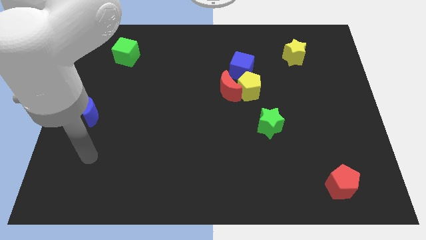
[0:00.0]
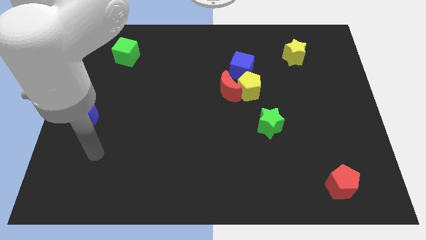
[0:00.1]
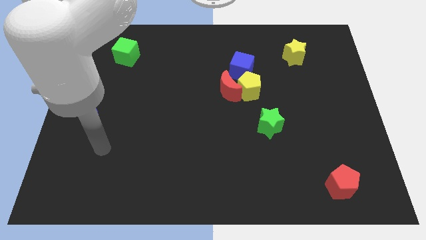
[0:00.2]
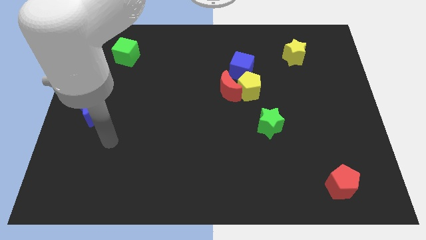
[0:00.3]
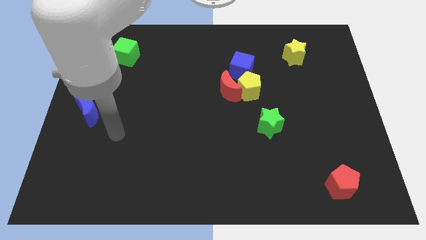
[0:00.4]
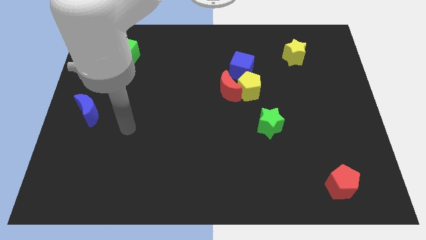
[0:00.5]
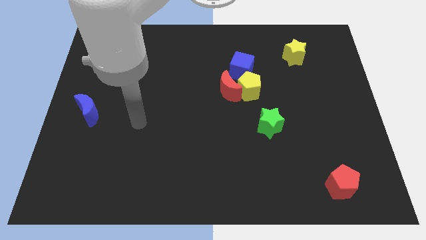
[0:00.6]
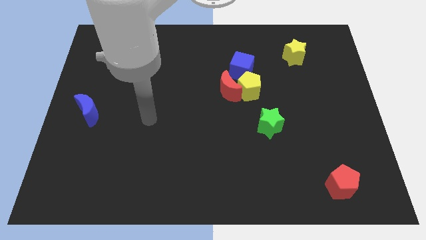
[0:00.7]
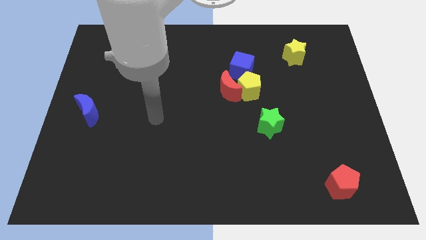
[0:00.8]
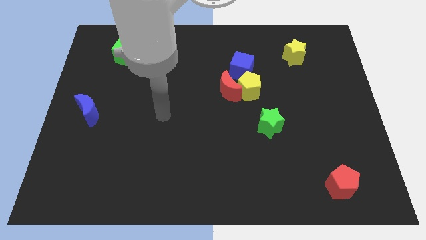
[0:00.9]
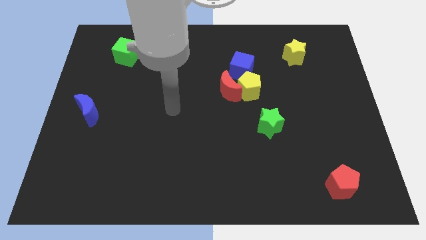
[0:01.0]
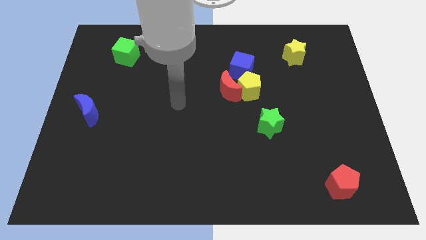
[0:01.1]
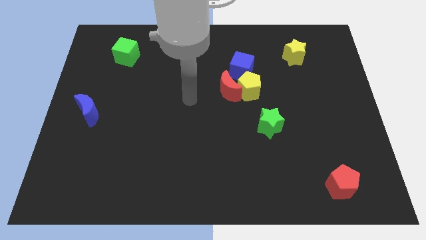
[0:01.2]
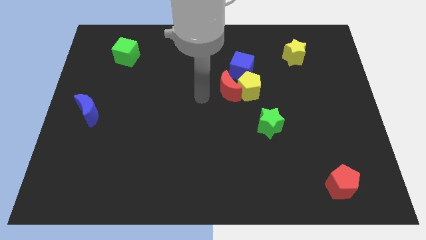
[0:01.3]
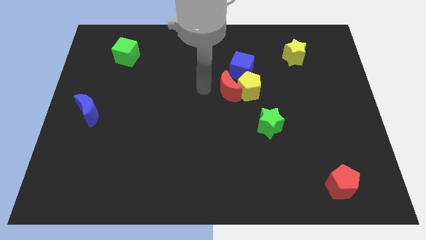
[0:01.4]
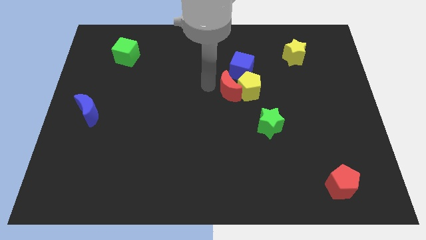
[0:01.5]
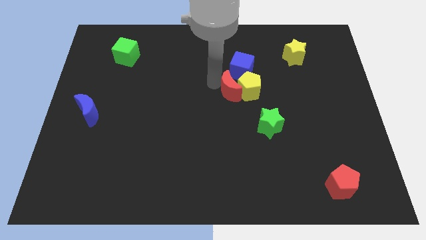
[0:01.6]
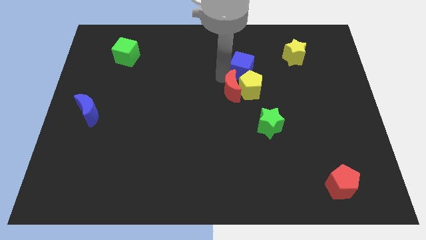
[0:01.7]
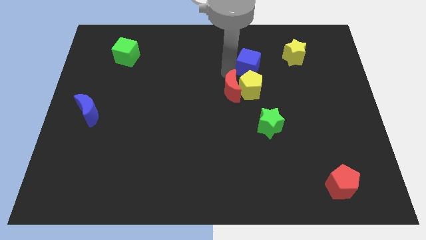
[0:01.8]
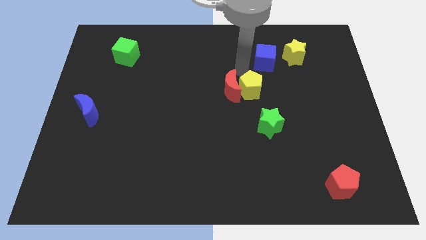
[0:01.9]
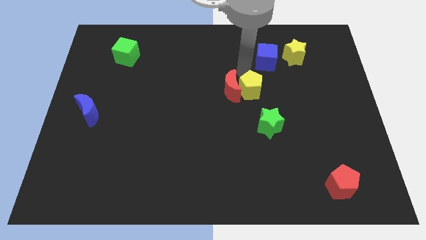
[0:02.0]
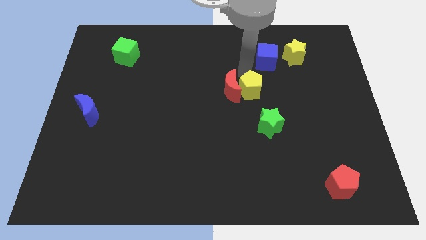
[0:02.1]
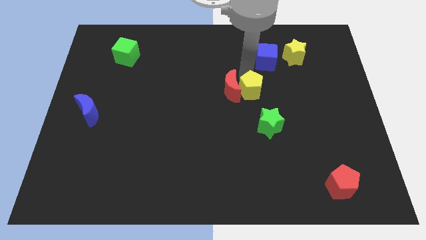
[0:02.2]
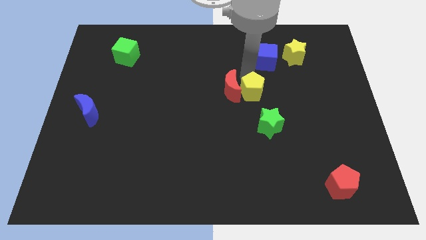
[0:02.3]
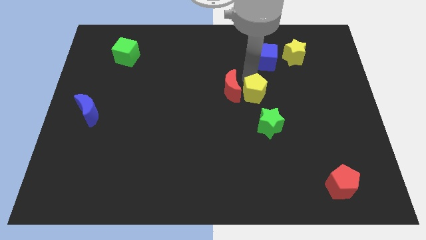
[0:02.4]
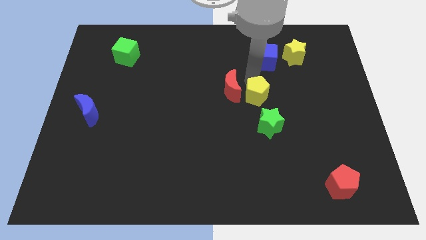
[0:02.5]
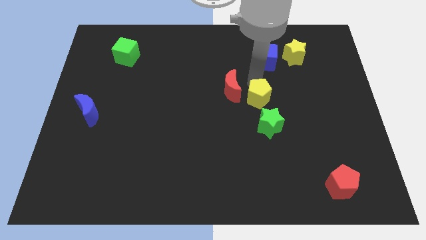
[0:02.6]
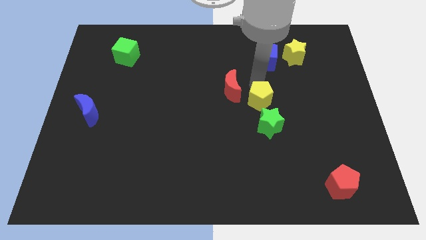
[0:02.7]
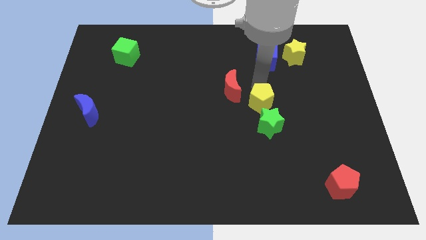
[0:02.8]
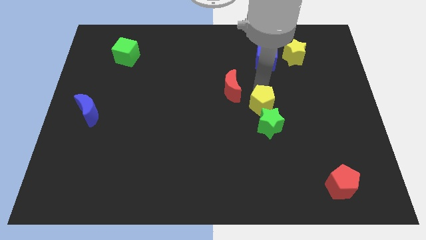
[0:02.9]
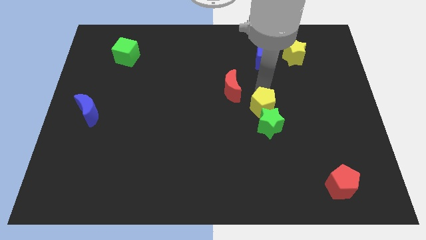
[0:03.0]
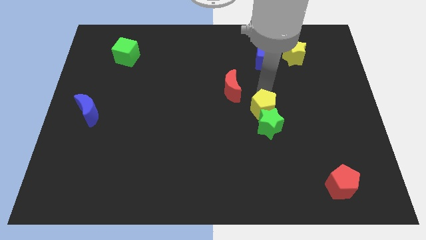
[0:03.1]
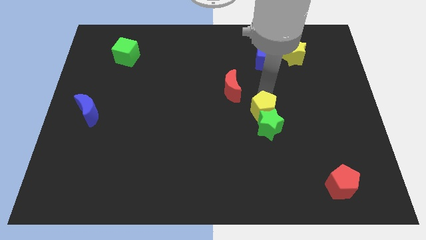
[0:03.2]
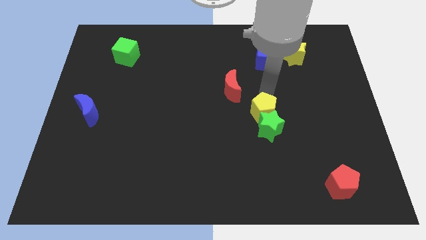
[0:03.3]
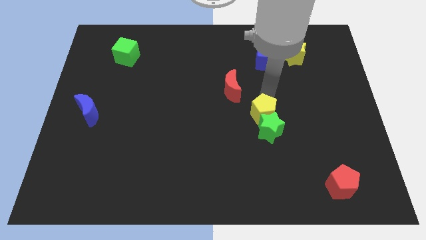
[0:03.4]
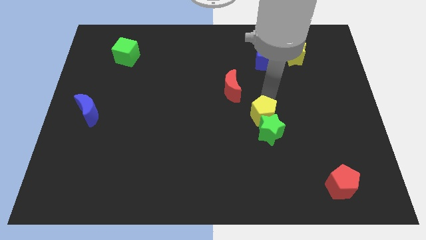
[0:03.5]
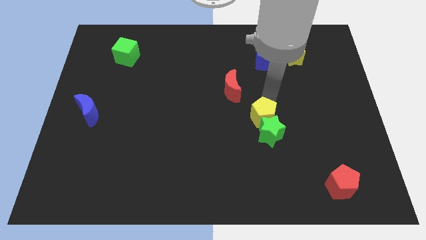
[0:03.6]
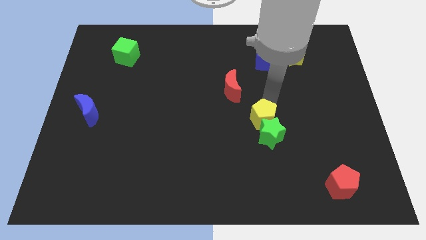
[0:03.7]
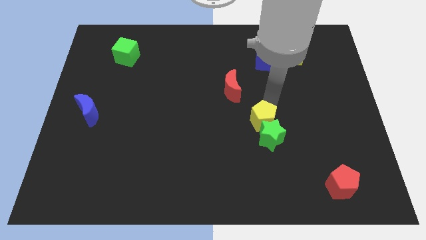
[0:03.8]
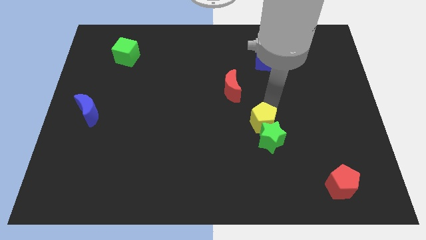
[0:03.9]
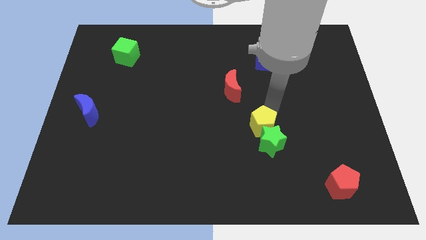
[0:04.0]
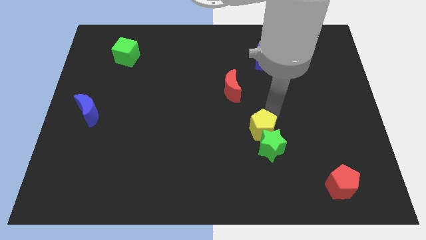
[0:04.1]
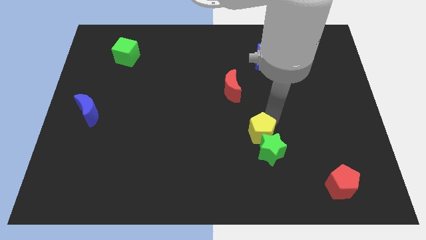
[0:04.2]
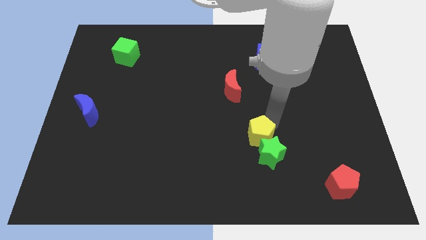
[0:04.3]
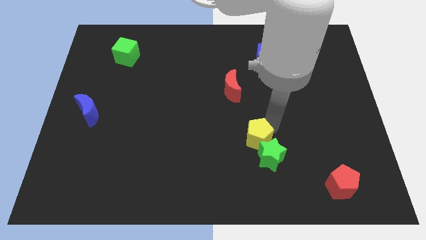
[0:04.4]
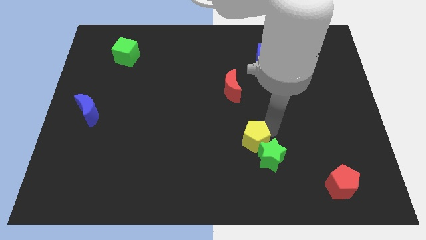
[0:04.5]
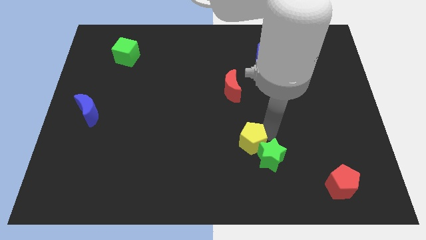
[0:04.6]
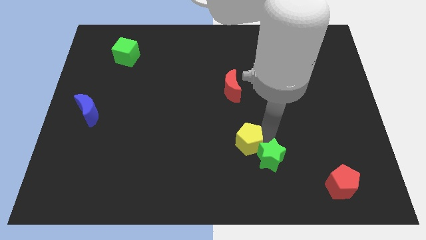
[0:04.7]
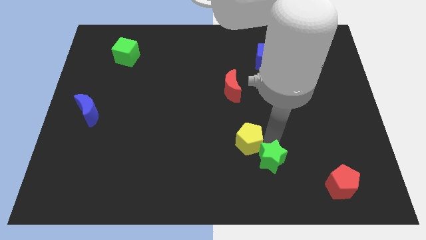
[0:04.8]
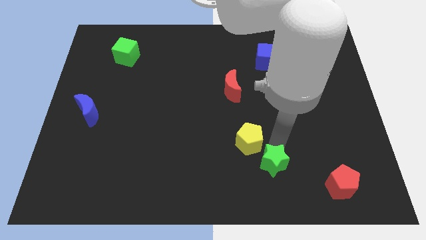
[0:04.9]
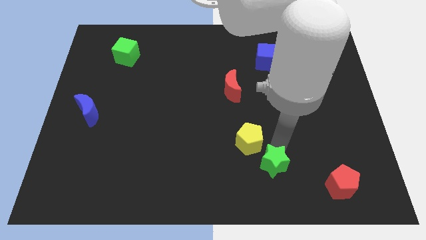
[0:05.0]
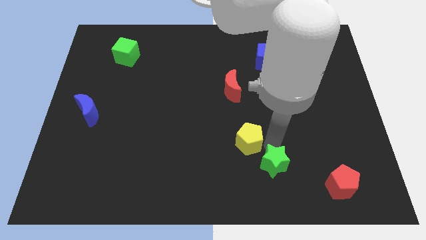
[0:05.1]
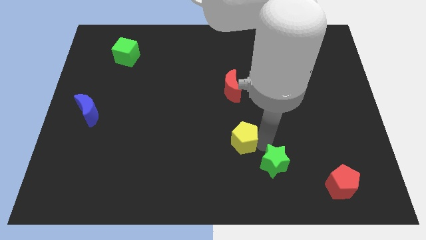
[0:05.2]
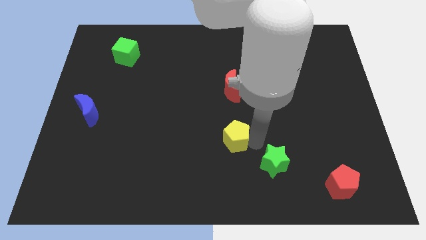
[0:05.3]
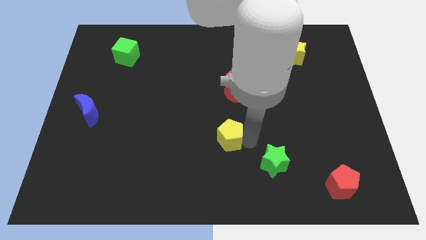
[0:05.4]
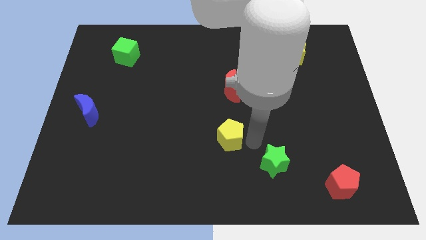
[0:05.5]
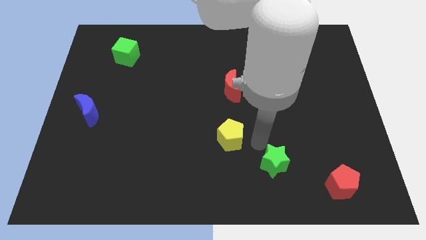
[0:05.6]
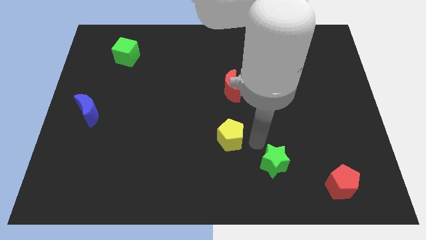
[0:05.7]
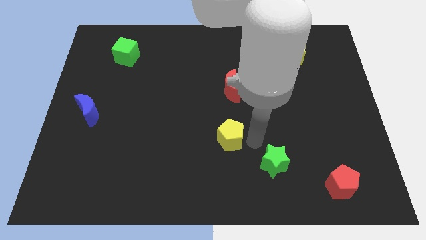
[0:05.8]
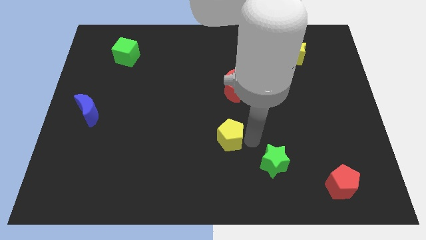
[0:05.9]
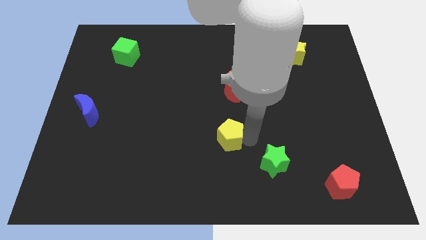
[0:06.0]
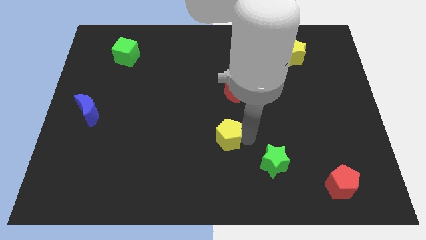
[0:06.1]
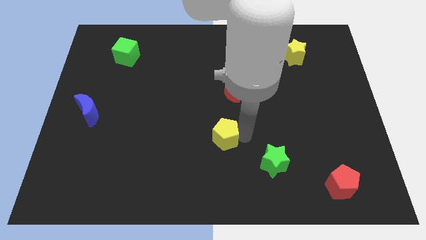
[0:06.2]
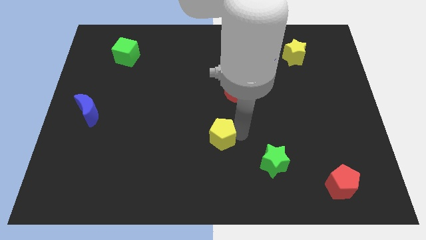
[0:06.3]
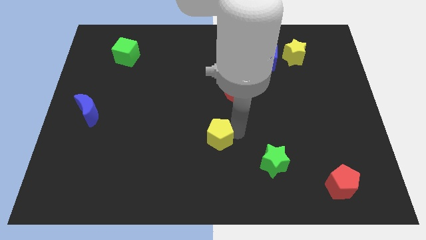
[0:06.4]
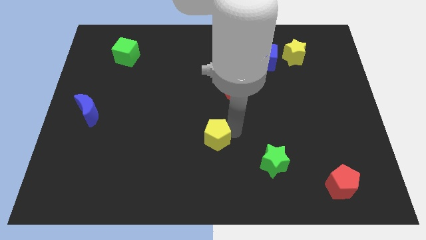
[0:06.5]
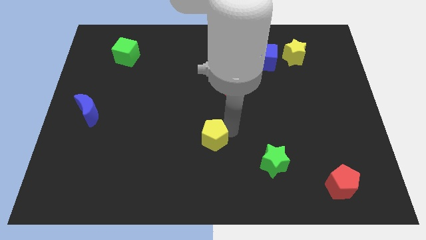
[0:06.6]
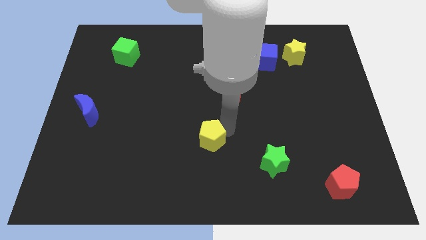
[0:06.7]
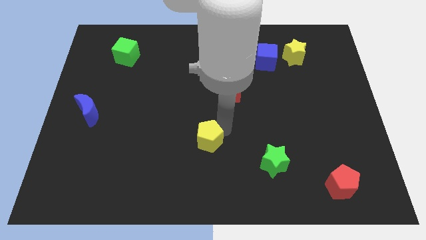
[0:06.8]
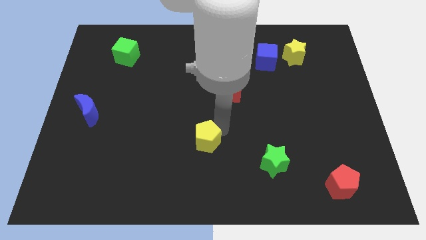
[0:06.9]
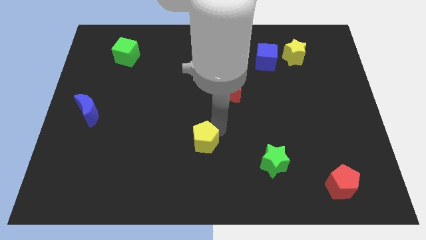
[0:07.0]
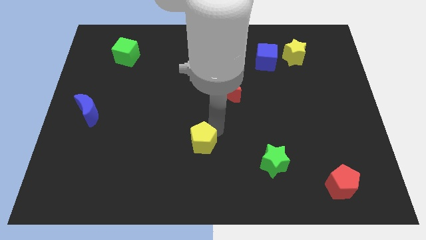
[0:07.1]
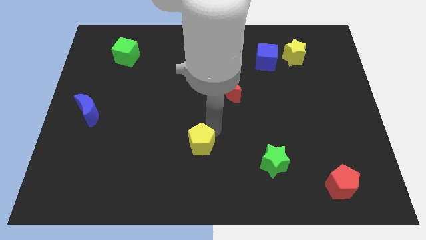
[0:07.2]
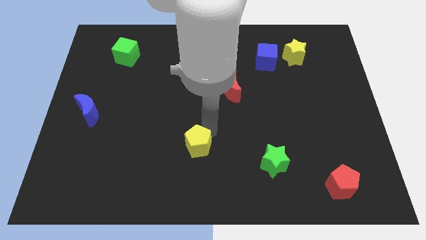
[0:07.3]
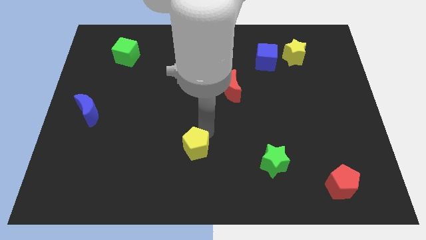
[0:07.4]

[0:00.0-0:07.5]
push the yellow pentagon down and then to the left

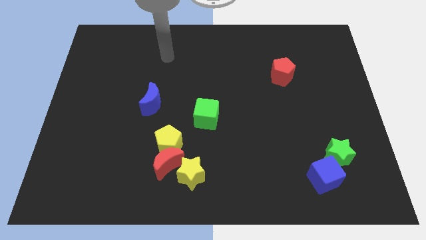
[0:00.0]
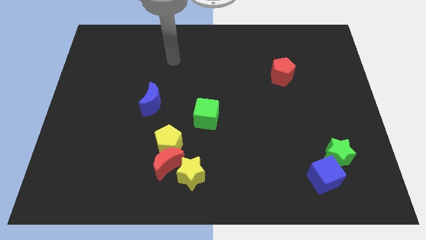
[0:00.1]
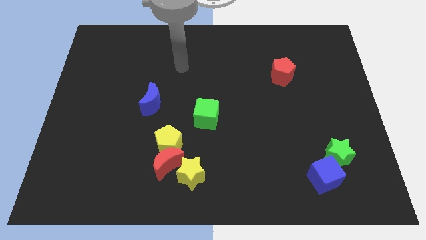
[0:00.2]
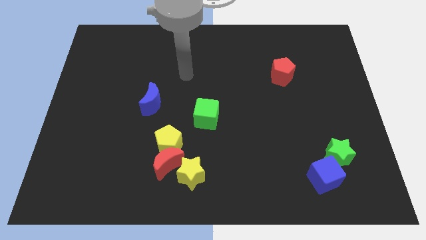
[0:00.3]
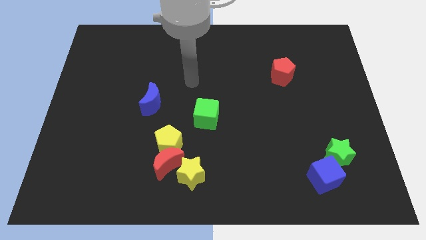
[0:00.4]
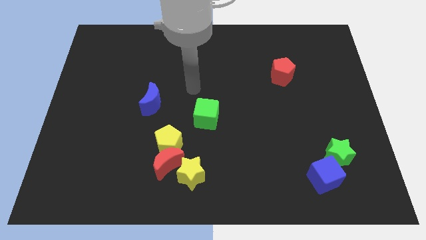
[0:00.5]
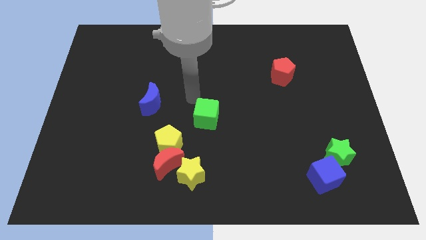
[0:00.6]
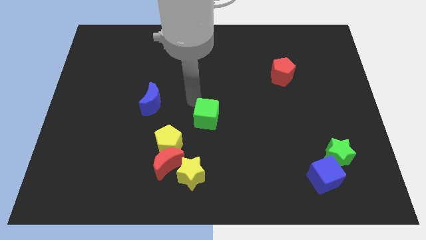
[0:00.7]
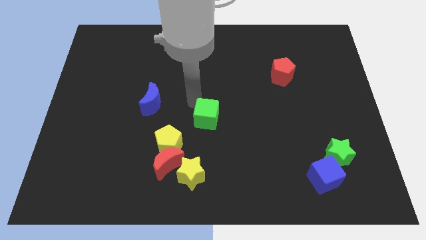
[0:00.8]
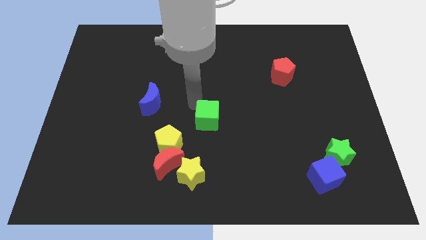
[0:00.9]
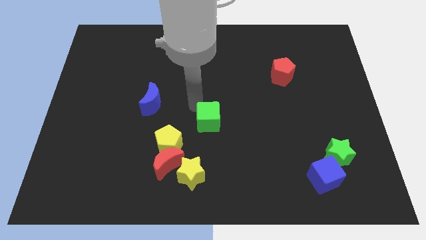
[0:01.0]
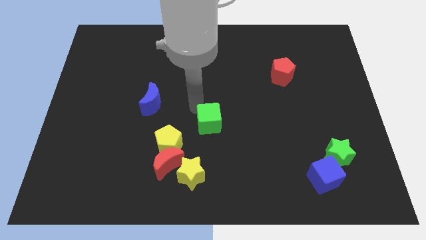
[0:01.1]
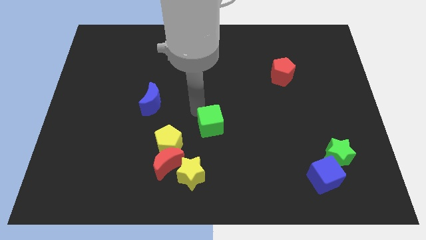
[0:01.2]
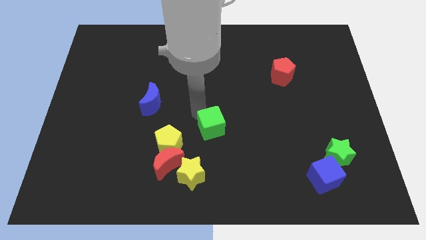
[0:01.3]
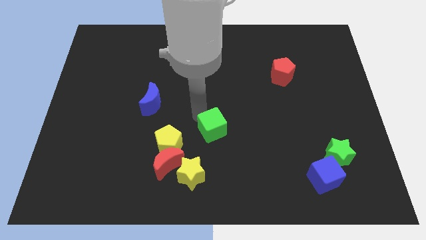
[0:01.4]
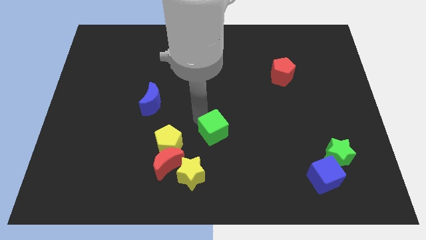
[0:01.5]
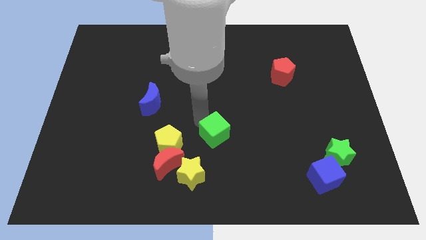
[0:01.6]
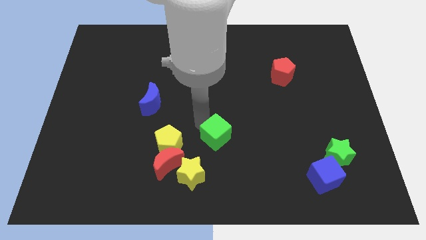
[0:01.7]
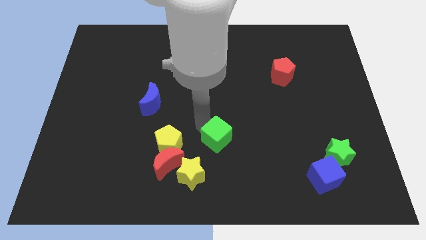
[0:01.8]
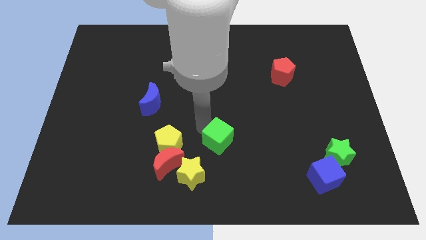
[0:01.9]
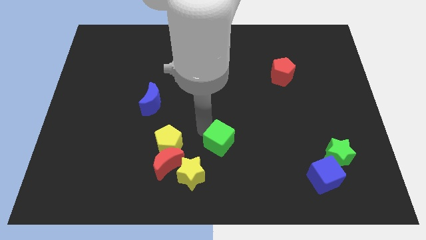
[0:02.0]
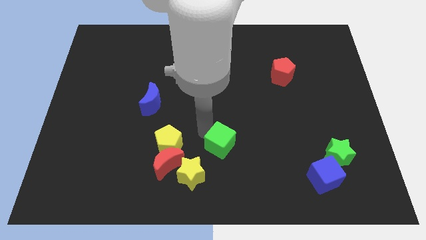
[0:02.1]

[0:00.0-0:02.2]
move the green cube slightly down and to the right
